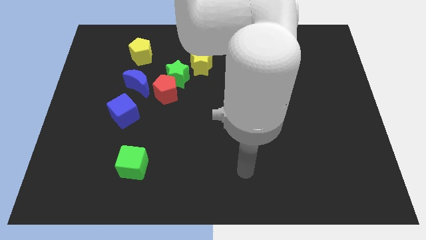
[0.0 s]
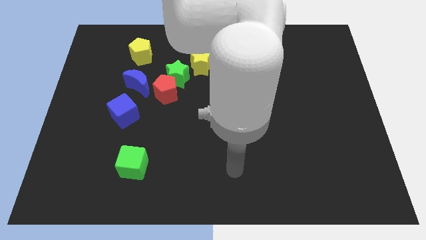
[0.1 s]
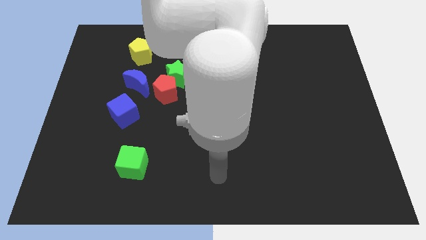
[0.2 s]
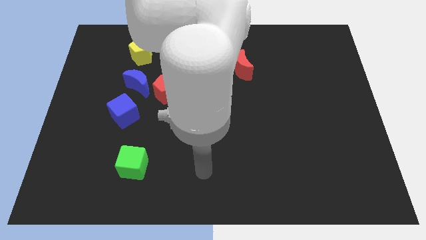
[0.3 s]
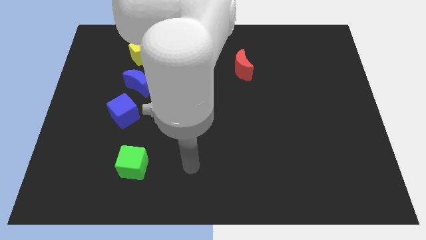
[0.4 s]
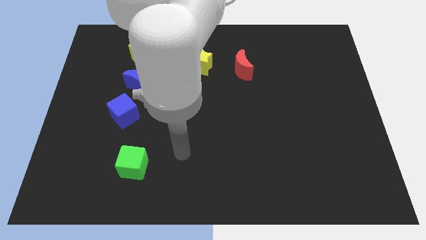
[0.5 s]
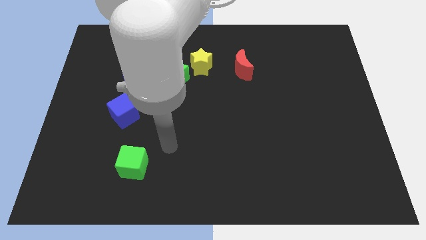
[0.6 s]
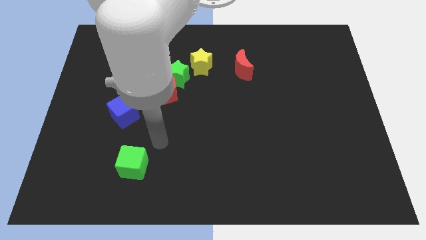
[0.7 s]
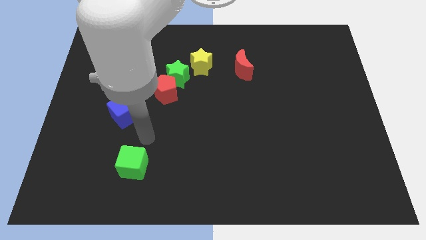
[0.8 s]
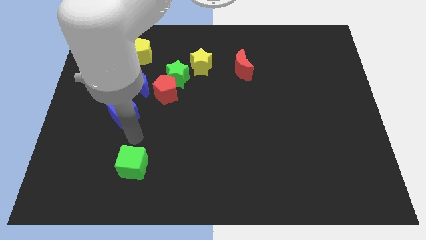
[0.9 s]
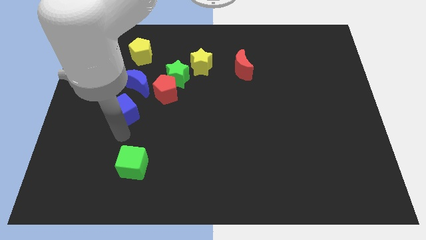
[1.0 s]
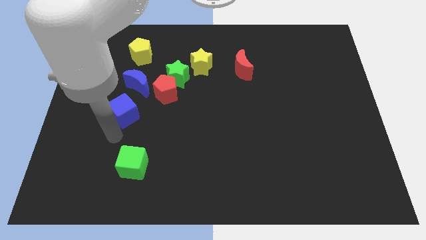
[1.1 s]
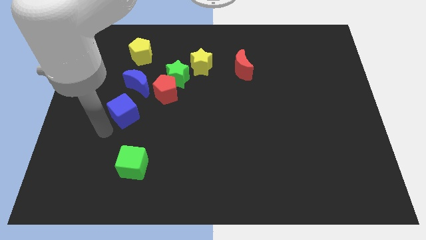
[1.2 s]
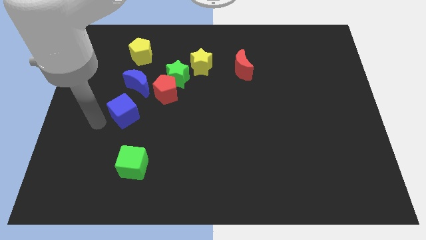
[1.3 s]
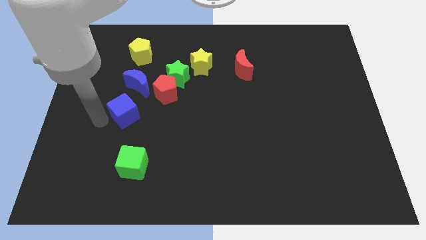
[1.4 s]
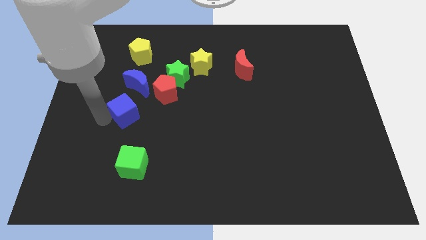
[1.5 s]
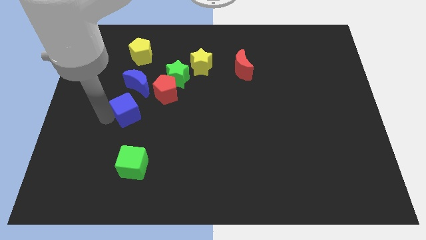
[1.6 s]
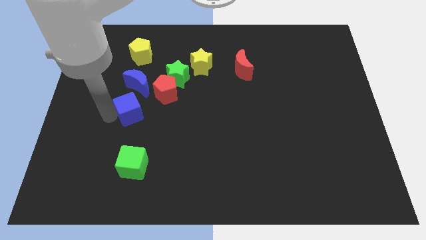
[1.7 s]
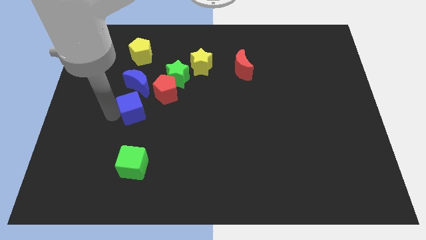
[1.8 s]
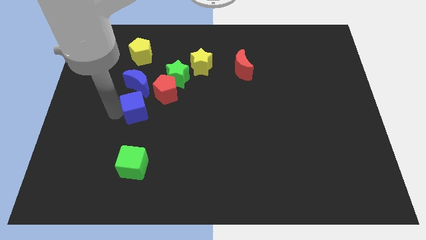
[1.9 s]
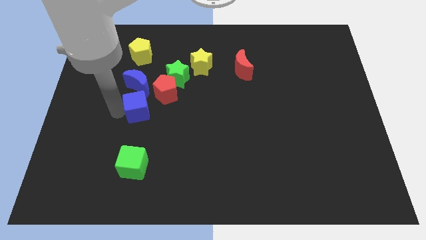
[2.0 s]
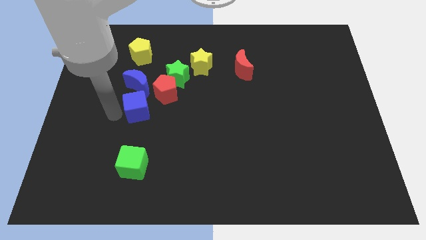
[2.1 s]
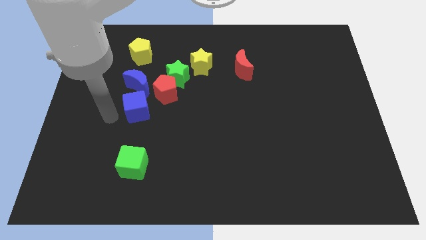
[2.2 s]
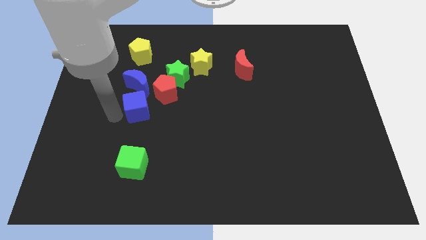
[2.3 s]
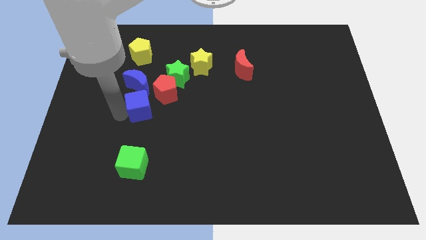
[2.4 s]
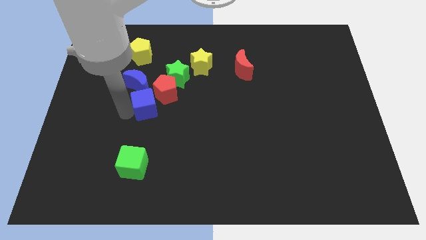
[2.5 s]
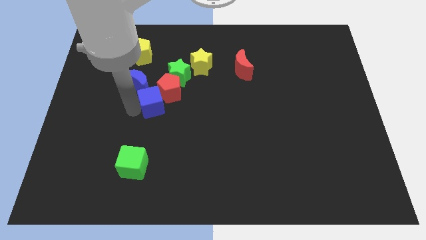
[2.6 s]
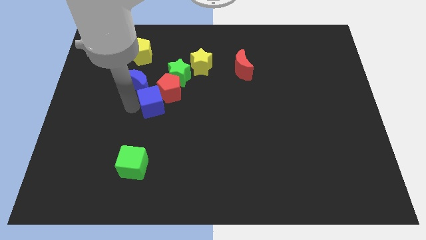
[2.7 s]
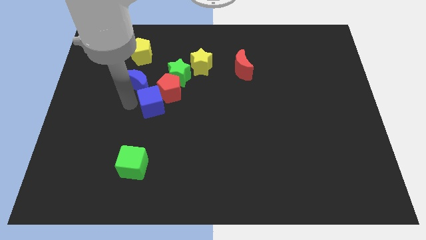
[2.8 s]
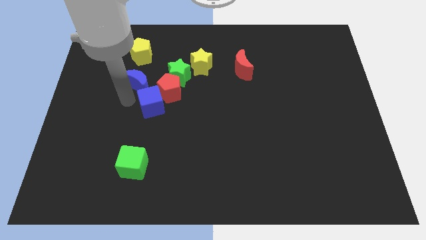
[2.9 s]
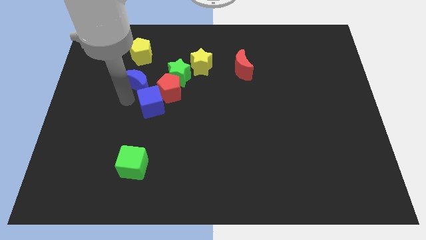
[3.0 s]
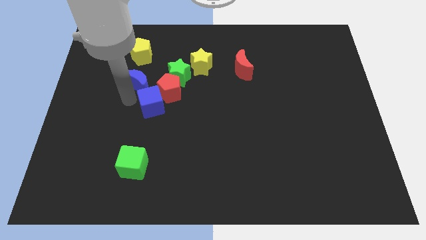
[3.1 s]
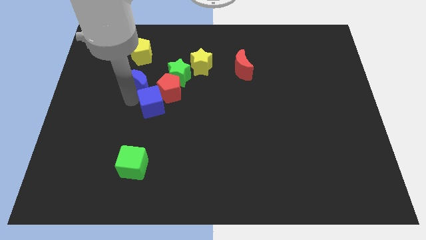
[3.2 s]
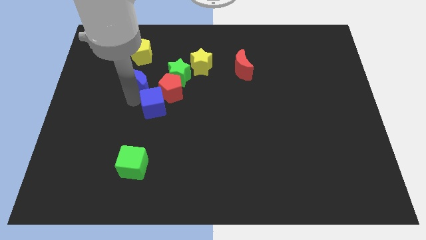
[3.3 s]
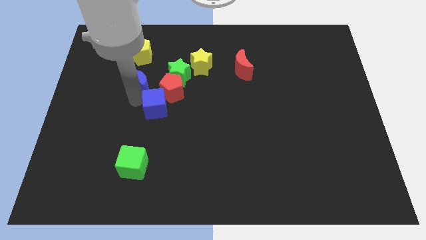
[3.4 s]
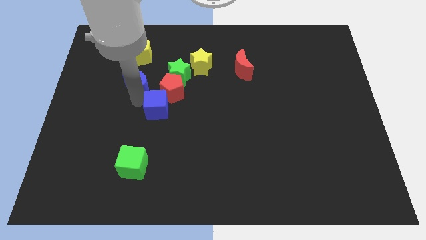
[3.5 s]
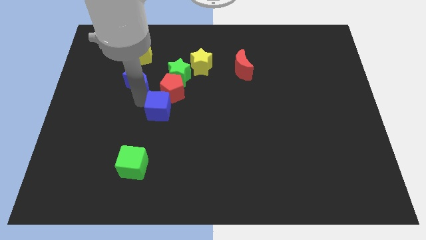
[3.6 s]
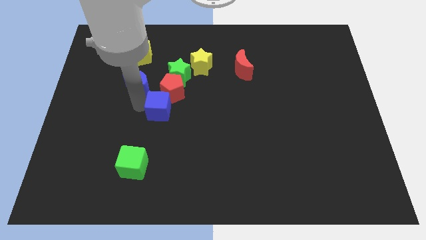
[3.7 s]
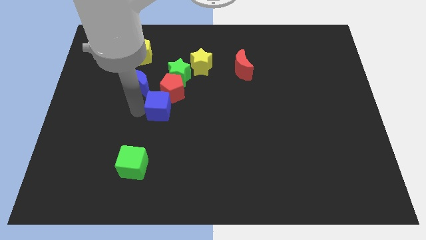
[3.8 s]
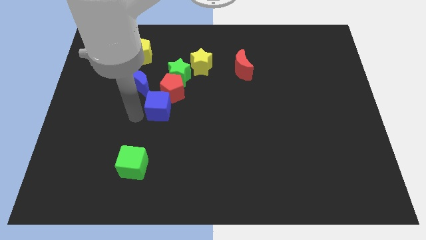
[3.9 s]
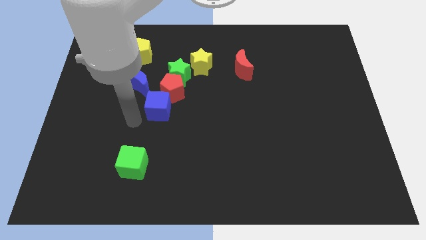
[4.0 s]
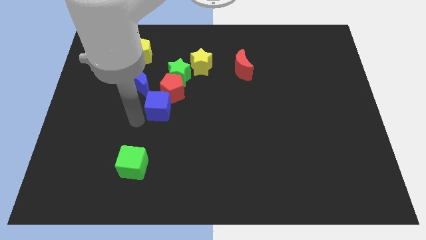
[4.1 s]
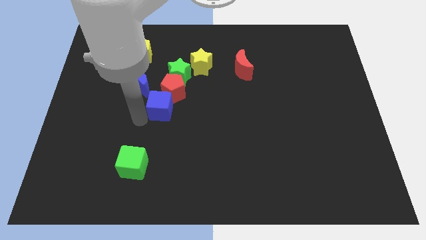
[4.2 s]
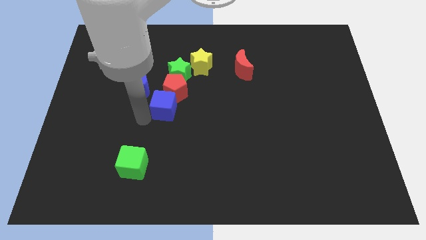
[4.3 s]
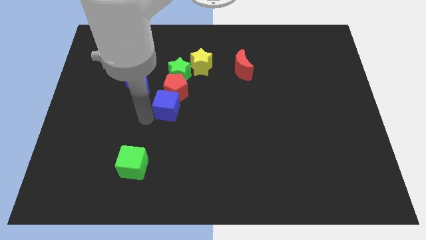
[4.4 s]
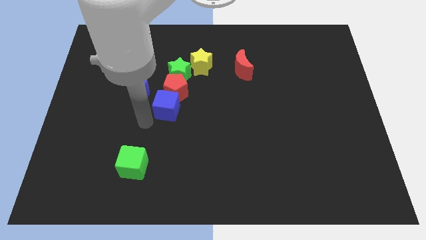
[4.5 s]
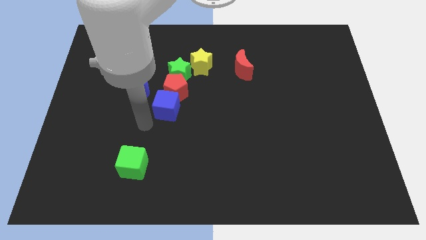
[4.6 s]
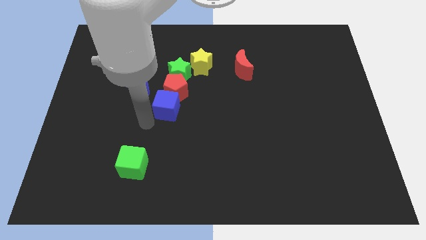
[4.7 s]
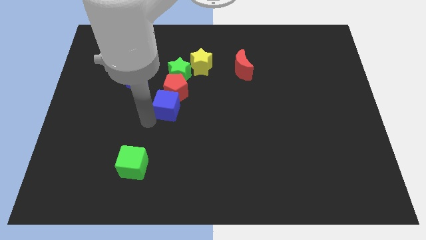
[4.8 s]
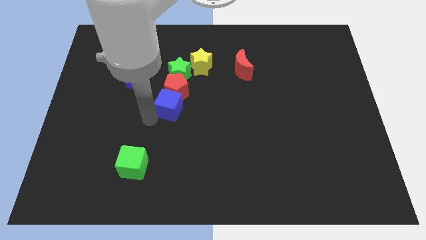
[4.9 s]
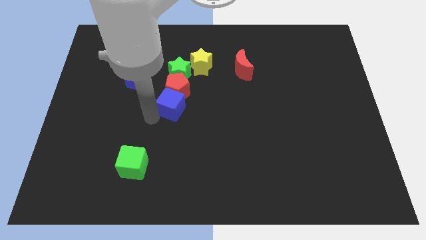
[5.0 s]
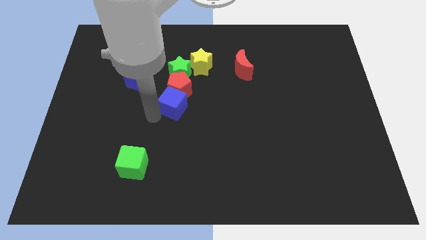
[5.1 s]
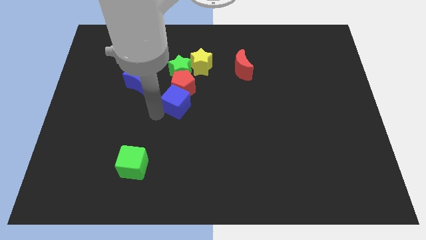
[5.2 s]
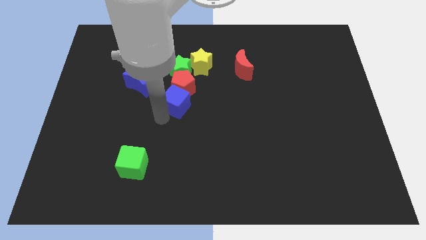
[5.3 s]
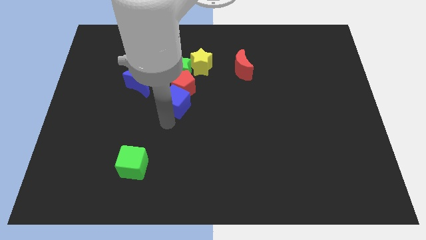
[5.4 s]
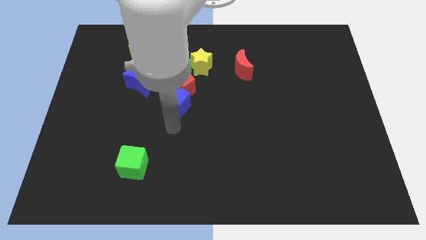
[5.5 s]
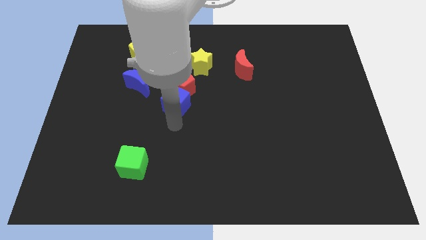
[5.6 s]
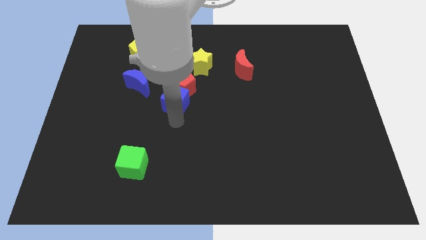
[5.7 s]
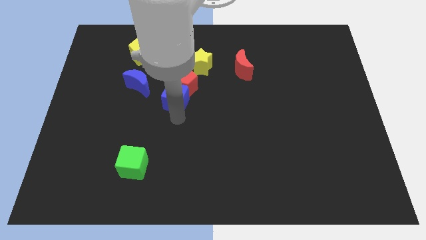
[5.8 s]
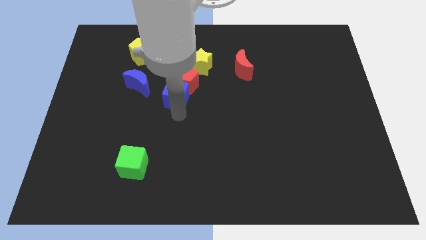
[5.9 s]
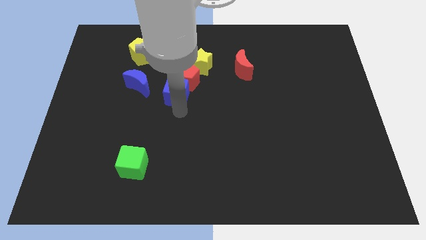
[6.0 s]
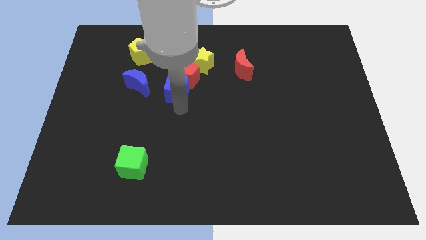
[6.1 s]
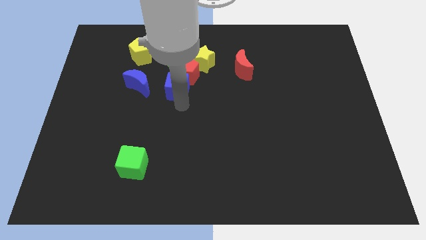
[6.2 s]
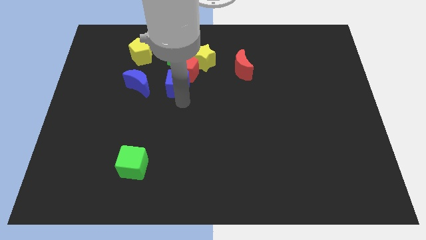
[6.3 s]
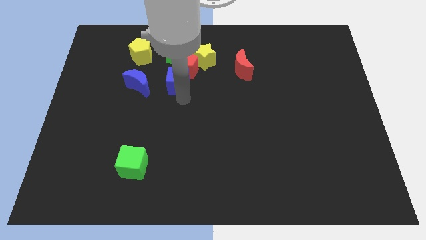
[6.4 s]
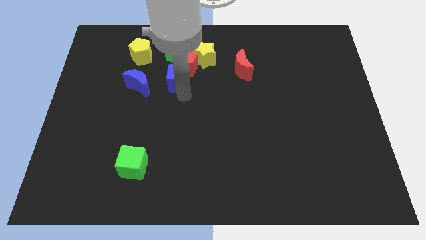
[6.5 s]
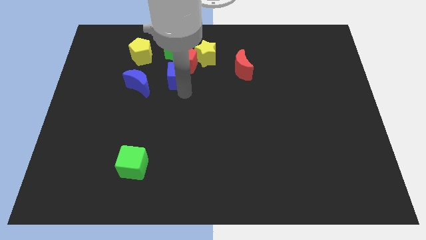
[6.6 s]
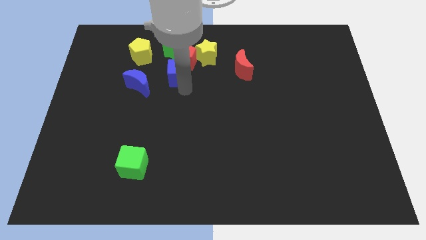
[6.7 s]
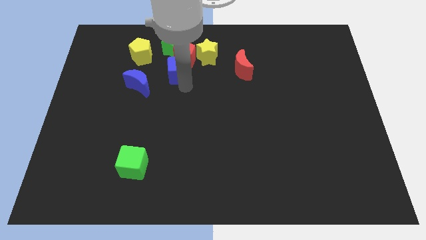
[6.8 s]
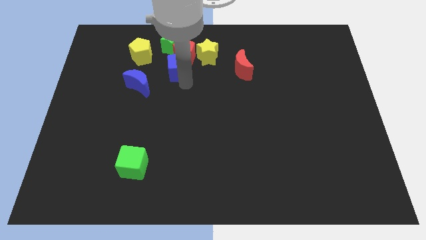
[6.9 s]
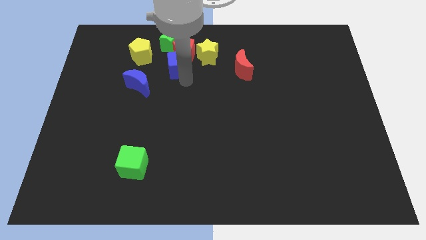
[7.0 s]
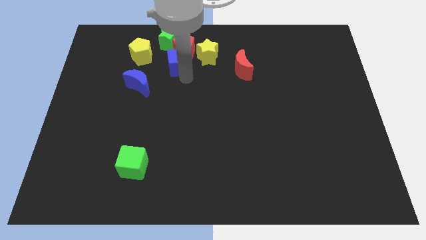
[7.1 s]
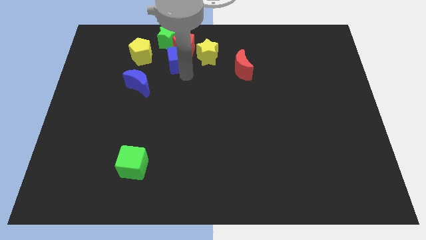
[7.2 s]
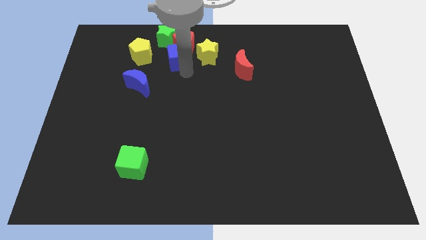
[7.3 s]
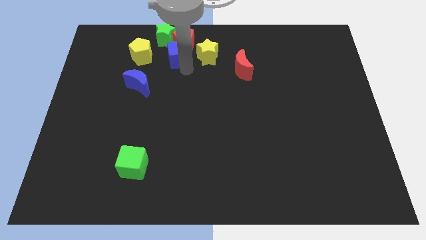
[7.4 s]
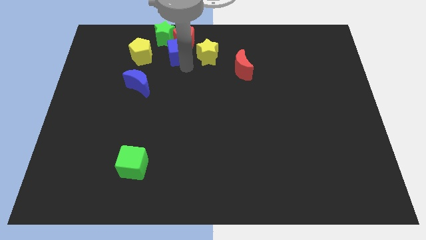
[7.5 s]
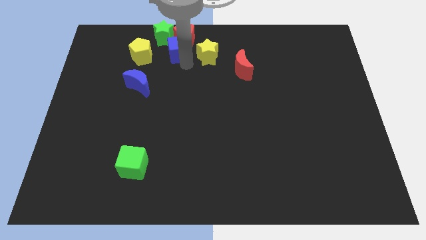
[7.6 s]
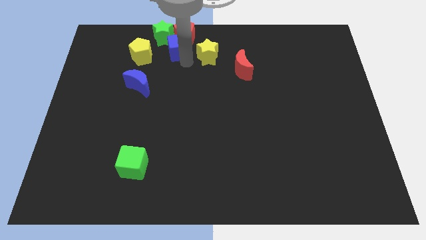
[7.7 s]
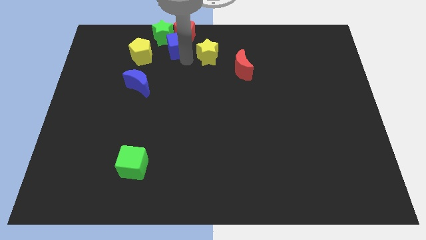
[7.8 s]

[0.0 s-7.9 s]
put the blue cube to the green star

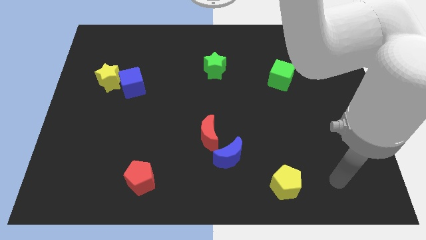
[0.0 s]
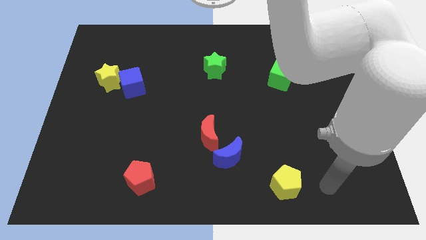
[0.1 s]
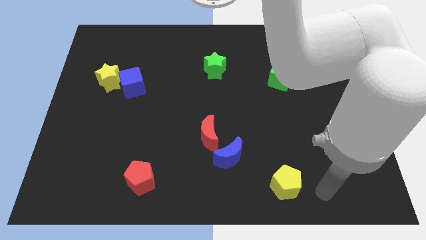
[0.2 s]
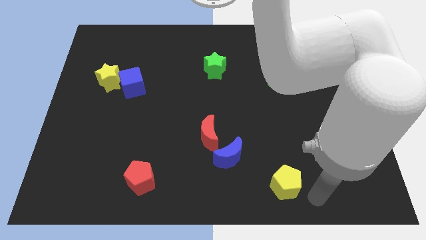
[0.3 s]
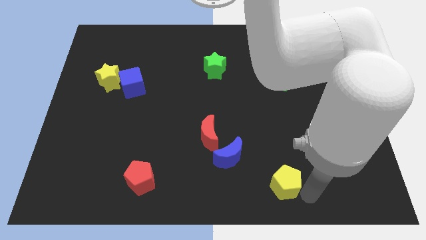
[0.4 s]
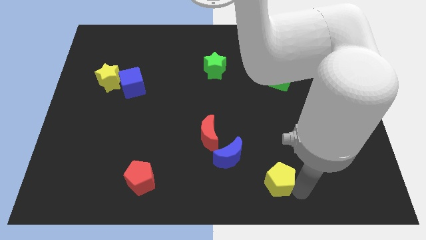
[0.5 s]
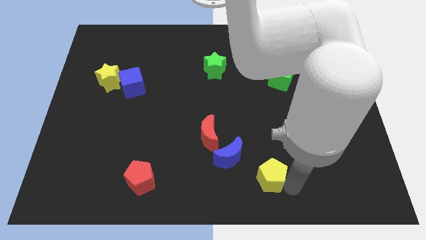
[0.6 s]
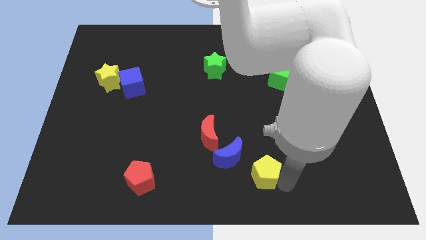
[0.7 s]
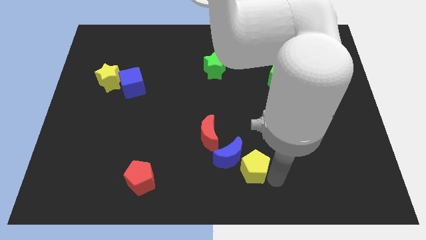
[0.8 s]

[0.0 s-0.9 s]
move the yellow pentagon to the blue moon
